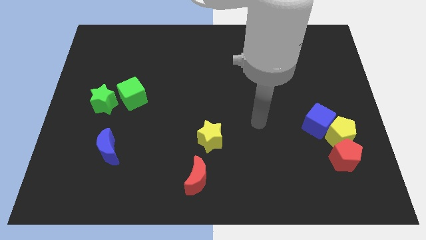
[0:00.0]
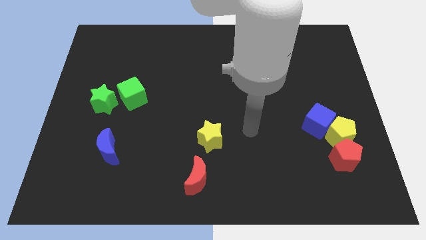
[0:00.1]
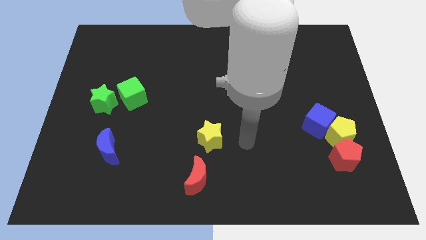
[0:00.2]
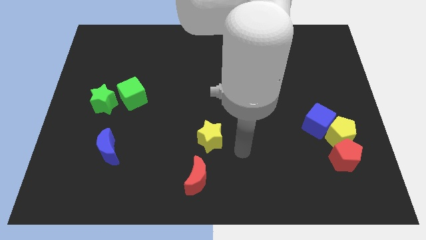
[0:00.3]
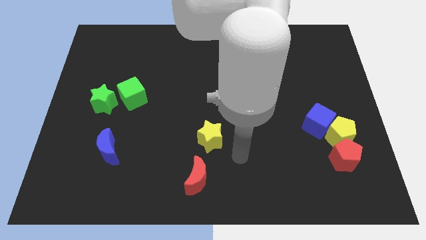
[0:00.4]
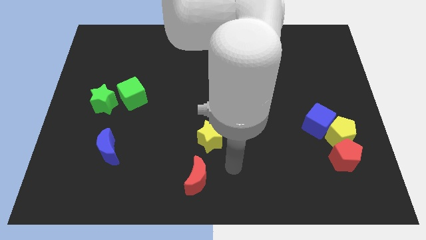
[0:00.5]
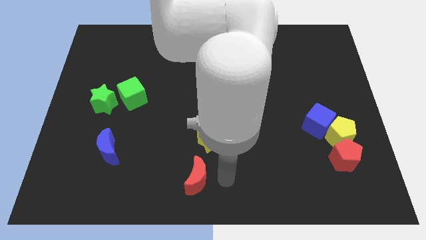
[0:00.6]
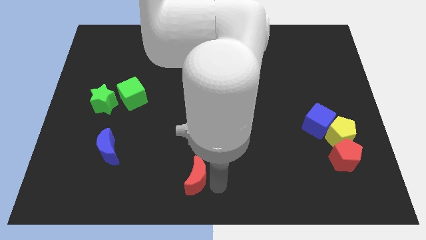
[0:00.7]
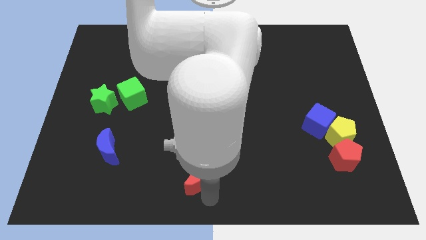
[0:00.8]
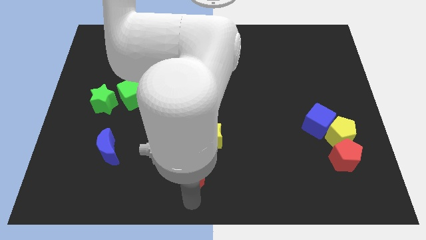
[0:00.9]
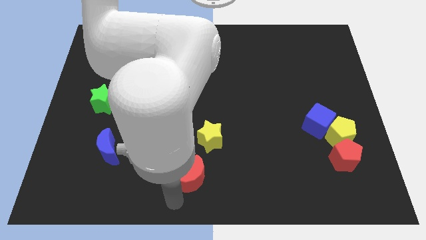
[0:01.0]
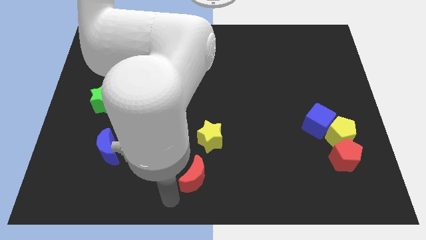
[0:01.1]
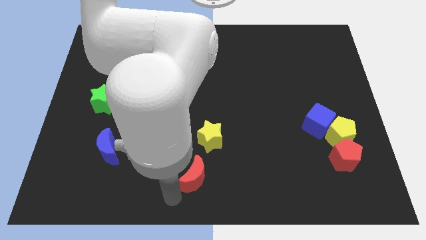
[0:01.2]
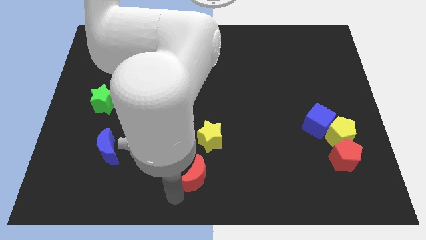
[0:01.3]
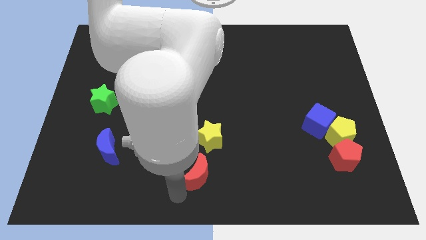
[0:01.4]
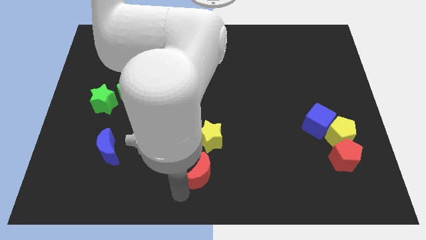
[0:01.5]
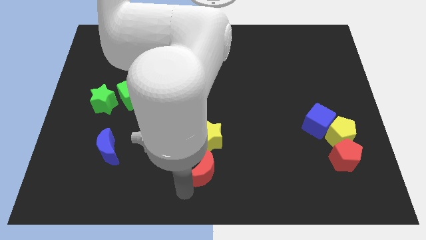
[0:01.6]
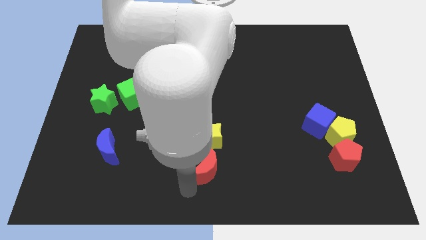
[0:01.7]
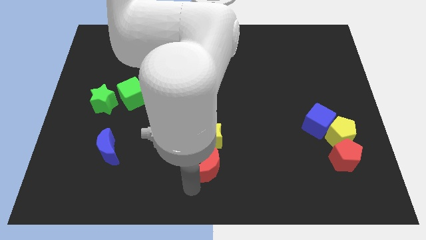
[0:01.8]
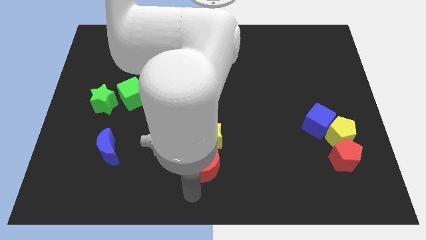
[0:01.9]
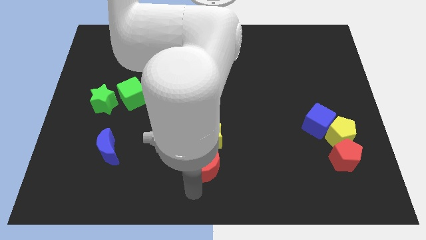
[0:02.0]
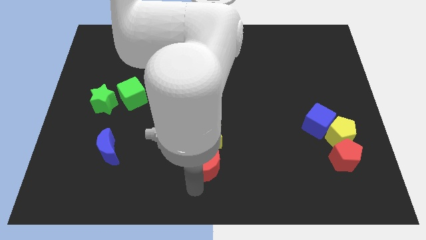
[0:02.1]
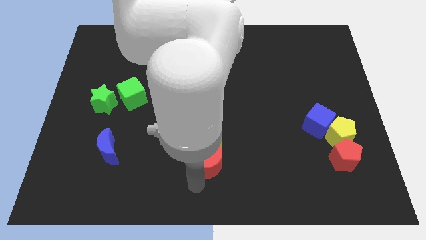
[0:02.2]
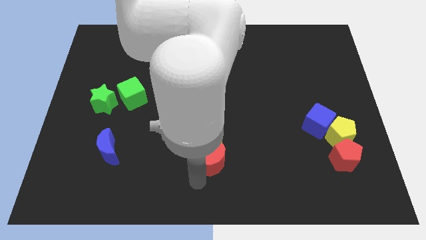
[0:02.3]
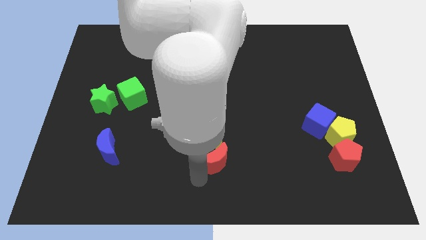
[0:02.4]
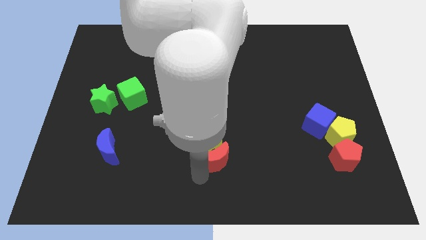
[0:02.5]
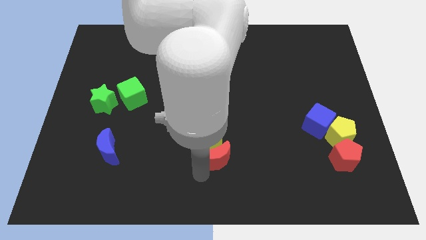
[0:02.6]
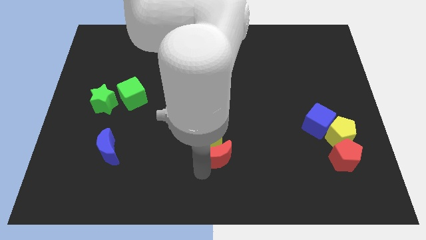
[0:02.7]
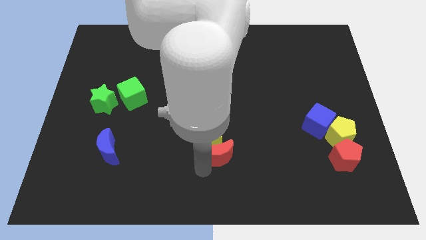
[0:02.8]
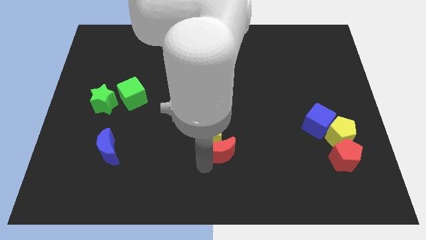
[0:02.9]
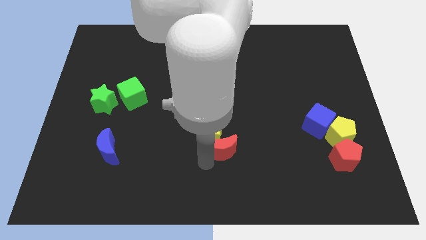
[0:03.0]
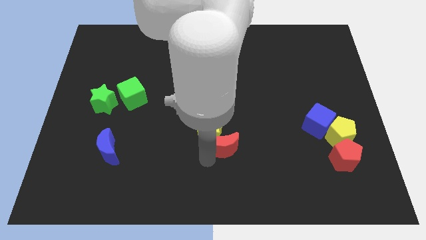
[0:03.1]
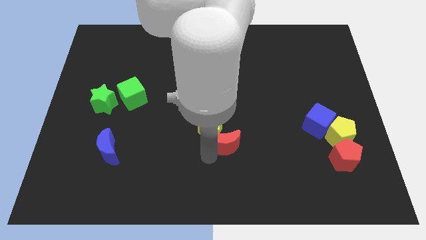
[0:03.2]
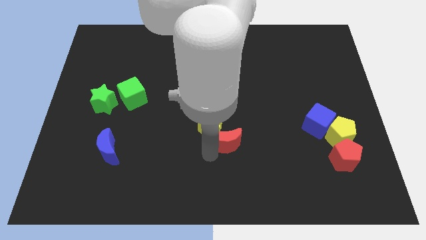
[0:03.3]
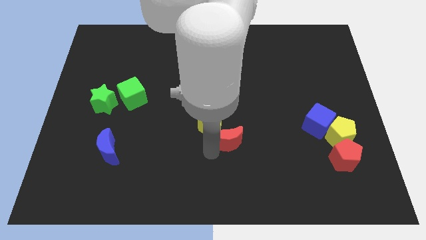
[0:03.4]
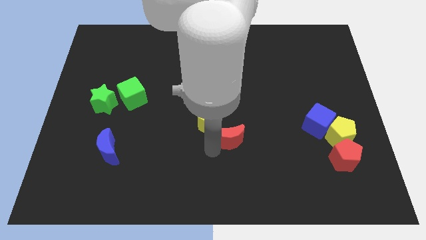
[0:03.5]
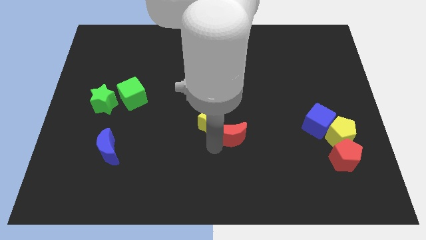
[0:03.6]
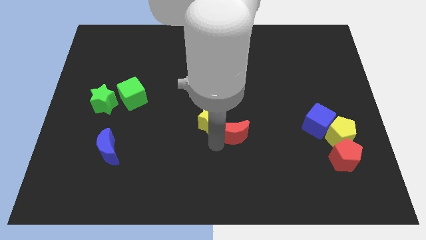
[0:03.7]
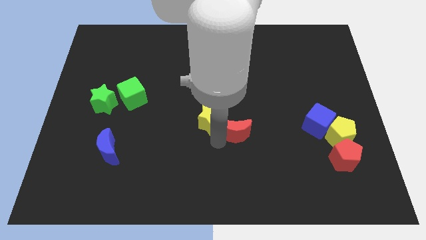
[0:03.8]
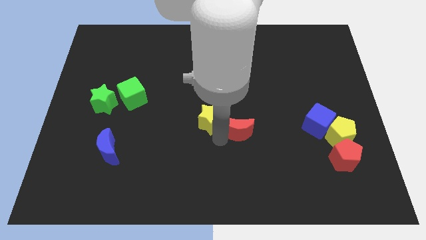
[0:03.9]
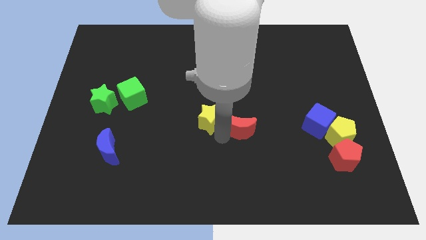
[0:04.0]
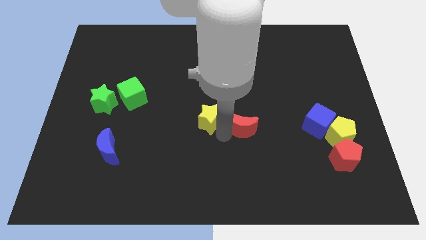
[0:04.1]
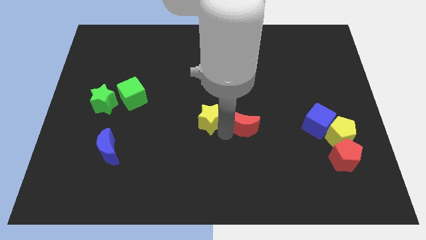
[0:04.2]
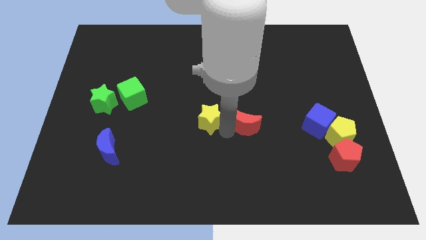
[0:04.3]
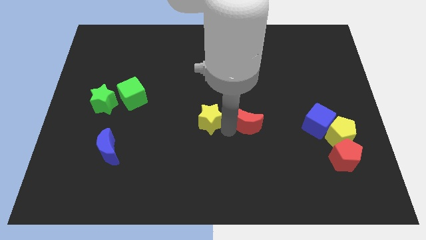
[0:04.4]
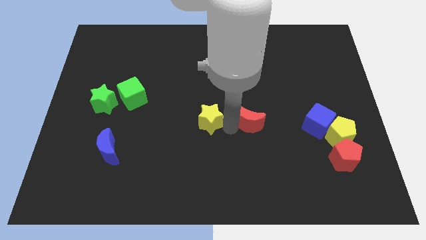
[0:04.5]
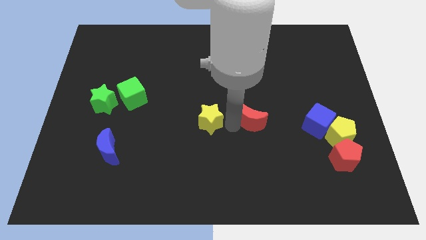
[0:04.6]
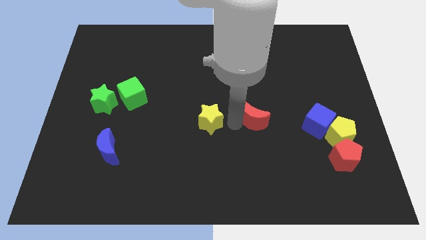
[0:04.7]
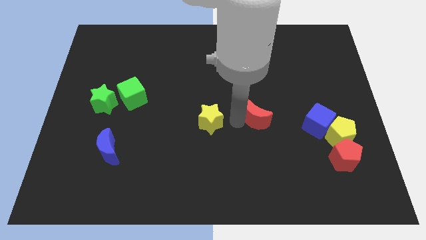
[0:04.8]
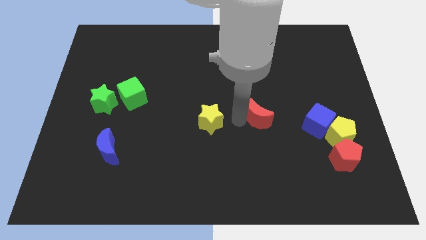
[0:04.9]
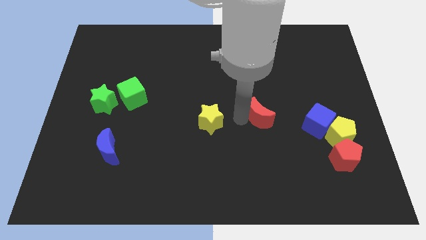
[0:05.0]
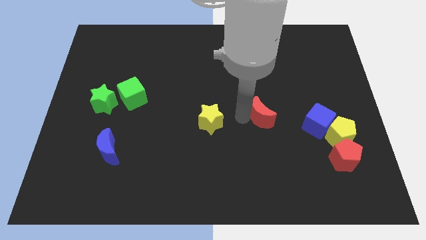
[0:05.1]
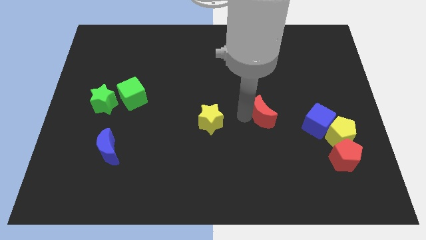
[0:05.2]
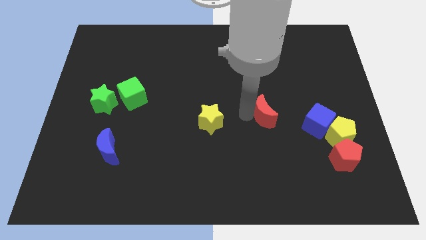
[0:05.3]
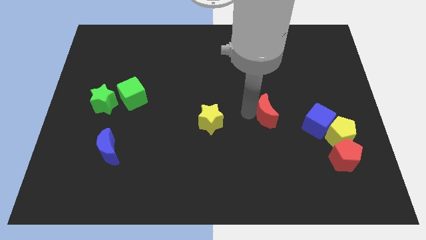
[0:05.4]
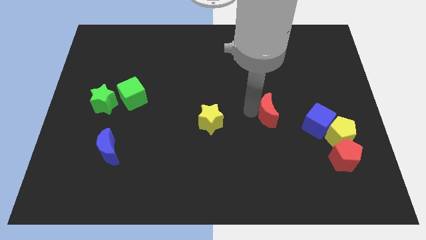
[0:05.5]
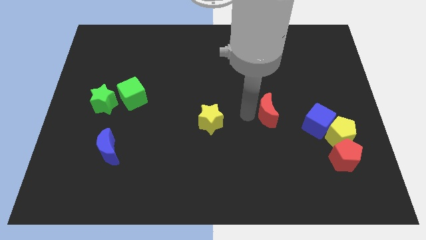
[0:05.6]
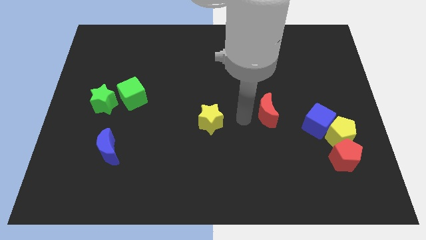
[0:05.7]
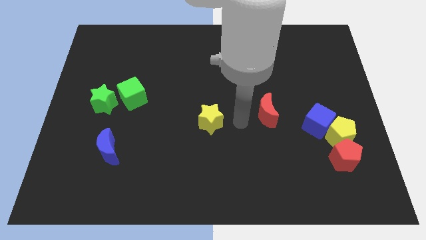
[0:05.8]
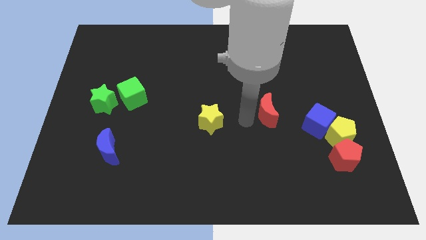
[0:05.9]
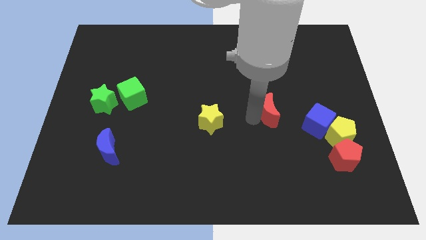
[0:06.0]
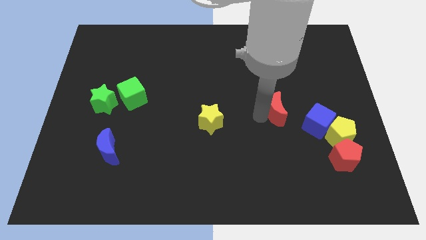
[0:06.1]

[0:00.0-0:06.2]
push the red moon to the top left side of the blue cube

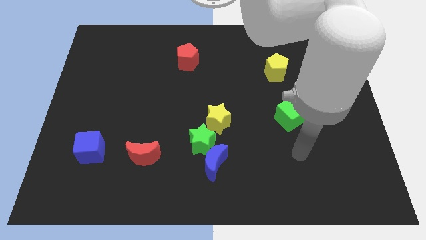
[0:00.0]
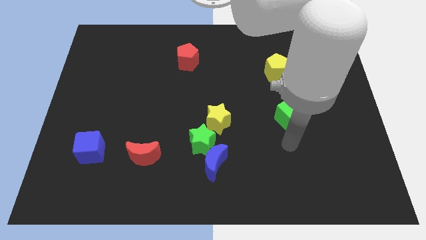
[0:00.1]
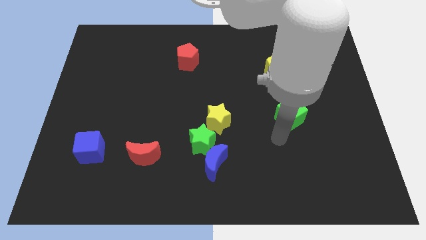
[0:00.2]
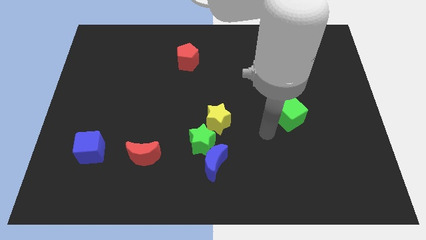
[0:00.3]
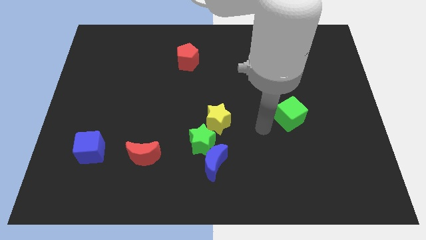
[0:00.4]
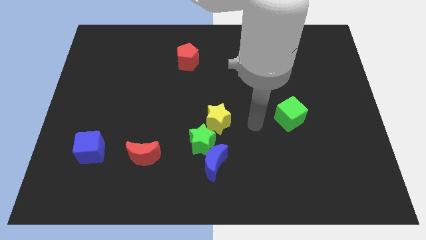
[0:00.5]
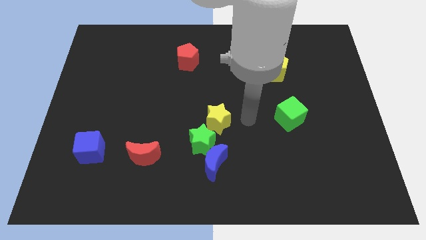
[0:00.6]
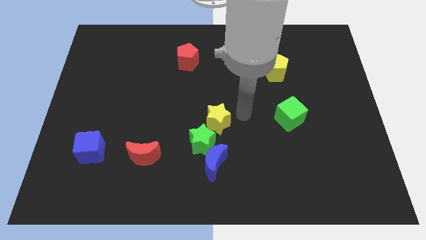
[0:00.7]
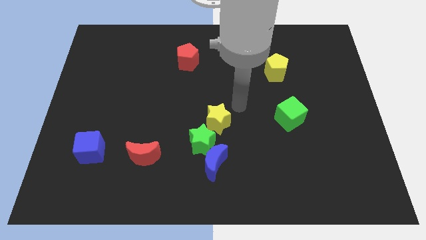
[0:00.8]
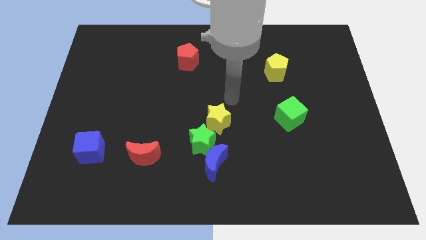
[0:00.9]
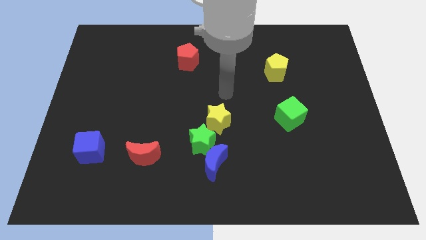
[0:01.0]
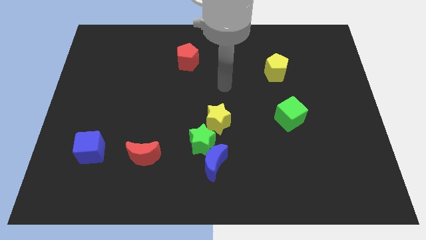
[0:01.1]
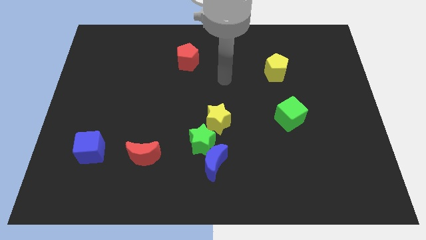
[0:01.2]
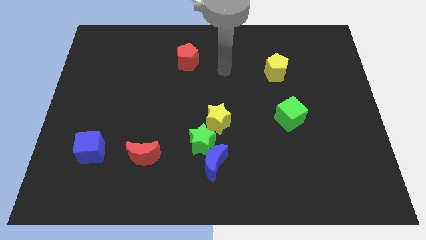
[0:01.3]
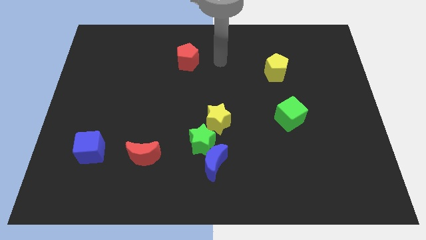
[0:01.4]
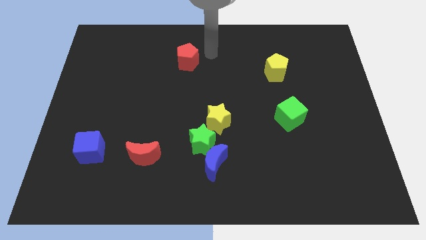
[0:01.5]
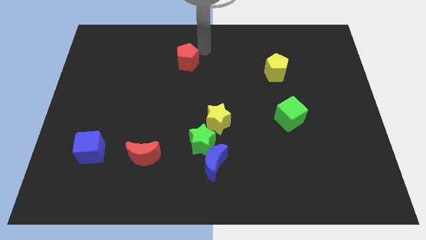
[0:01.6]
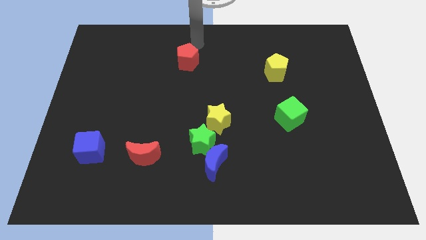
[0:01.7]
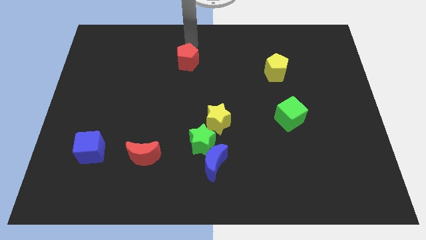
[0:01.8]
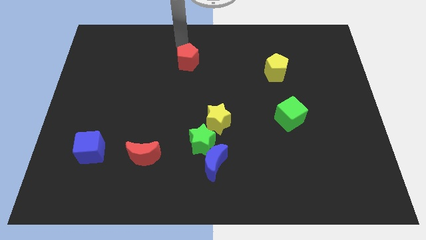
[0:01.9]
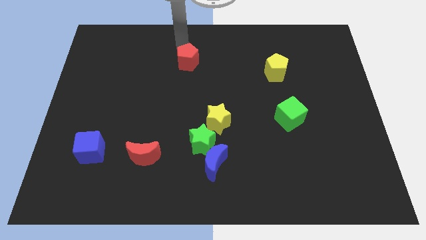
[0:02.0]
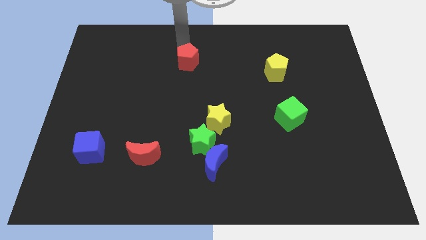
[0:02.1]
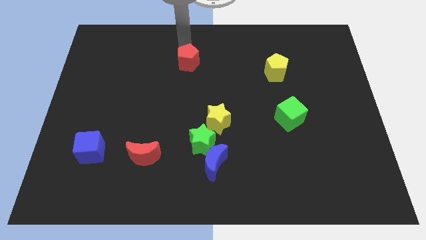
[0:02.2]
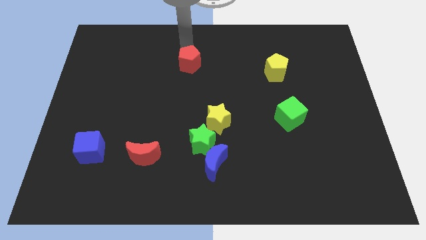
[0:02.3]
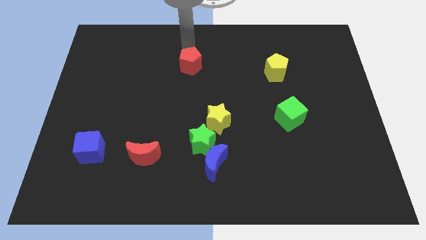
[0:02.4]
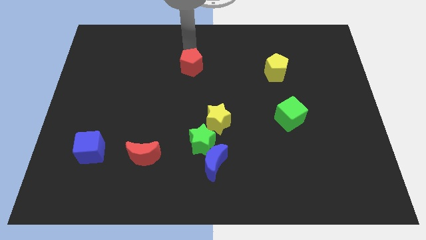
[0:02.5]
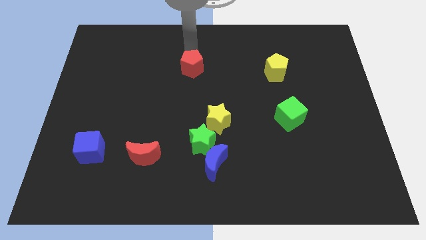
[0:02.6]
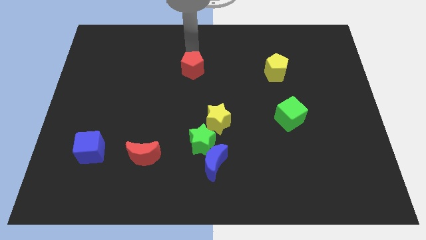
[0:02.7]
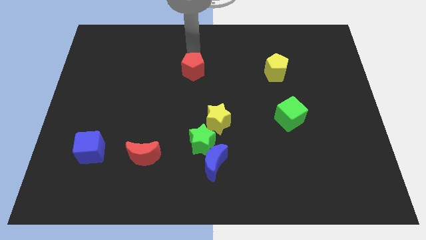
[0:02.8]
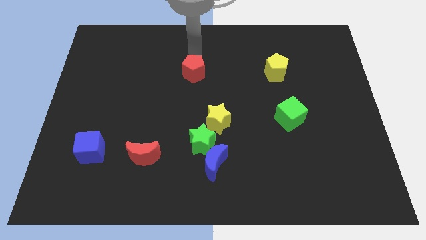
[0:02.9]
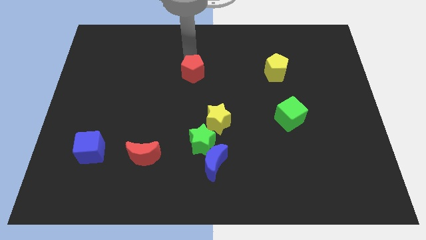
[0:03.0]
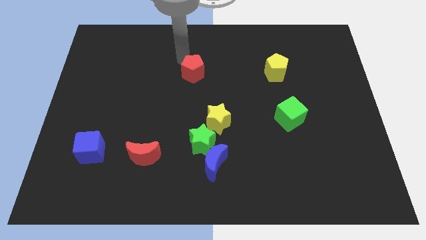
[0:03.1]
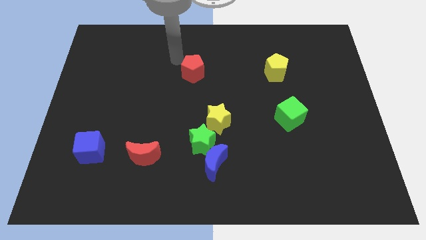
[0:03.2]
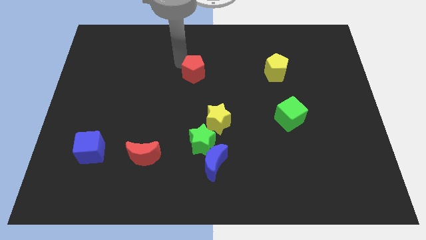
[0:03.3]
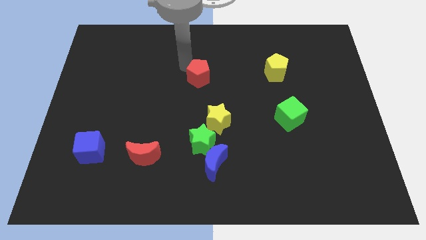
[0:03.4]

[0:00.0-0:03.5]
slide the red pentagon above the yellow star
